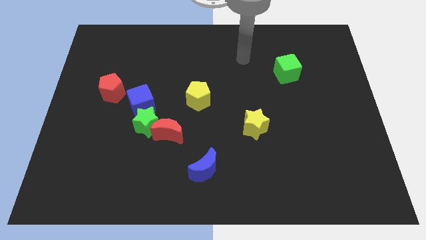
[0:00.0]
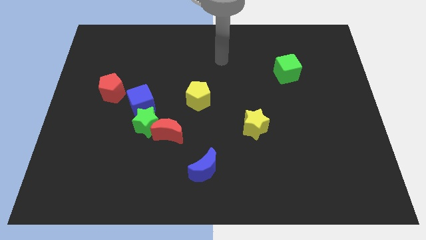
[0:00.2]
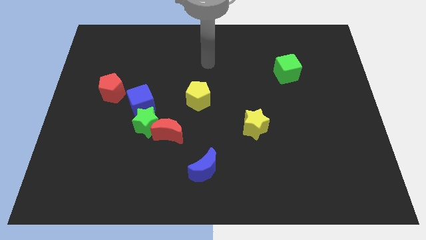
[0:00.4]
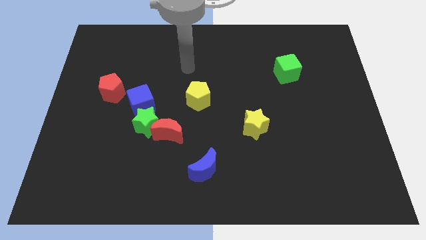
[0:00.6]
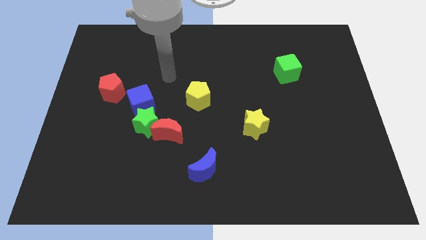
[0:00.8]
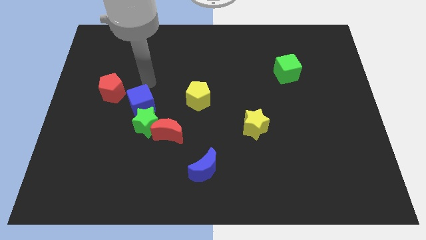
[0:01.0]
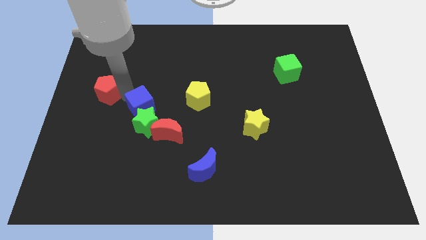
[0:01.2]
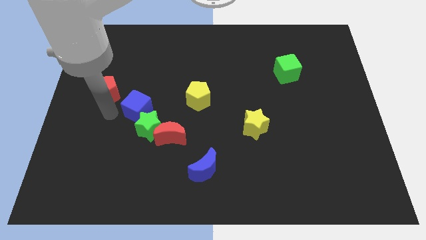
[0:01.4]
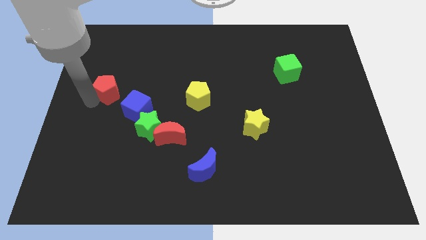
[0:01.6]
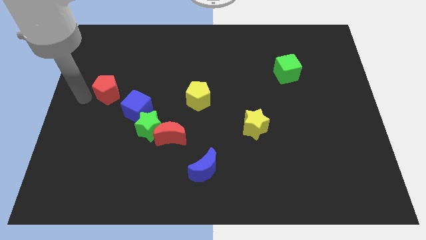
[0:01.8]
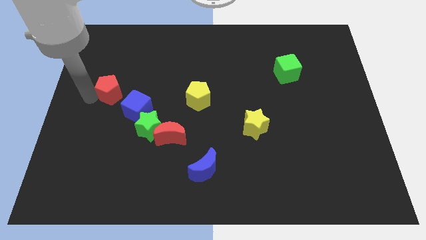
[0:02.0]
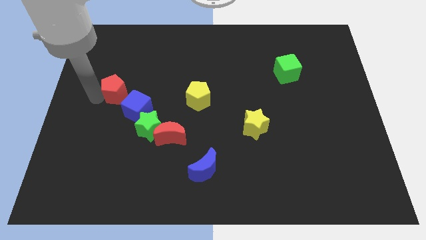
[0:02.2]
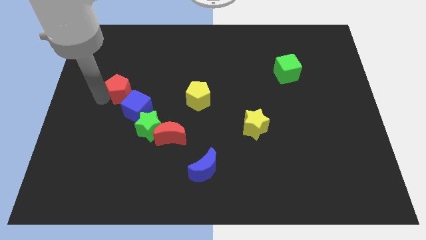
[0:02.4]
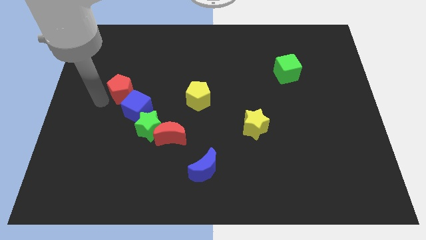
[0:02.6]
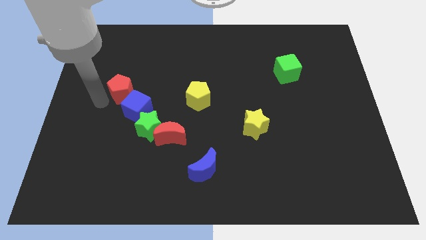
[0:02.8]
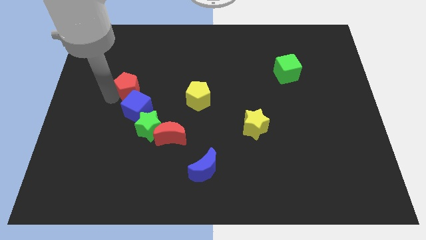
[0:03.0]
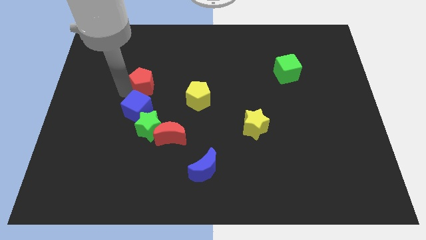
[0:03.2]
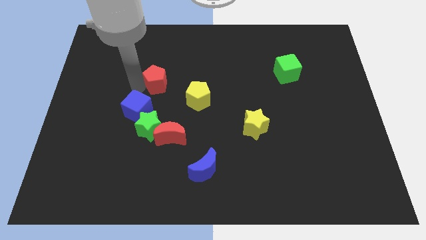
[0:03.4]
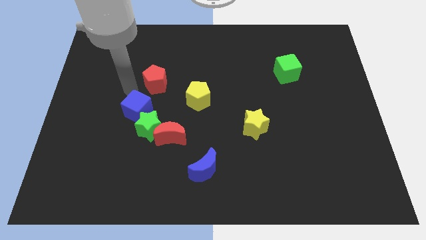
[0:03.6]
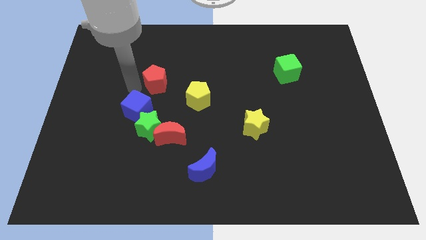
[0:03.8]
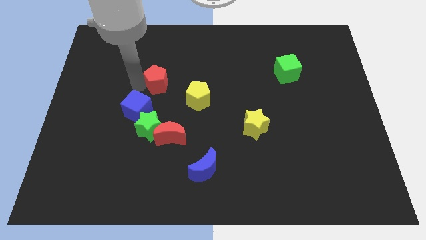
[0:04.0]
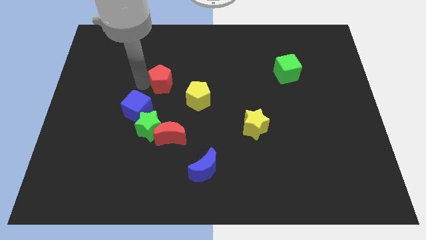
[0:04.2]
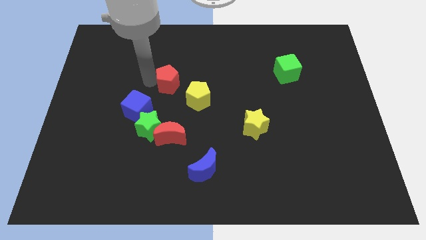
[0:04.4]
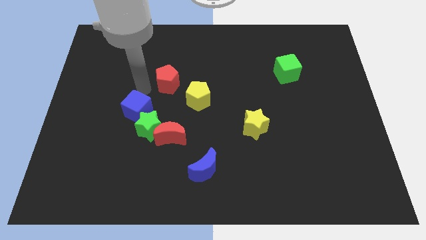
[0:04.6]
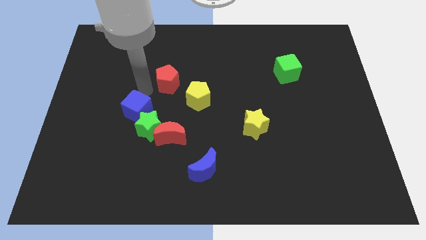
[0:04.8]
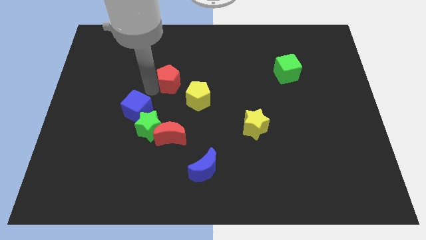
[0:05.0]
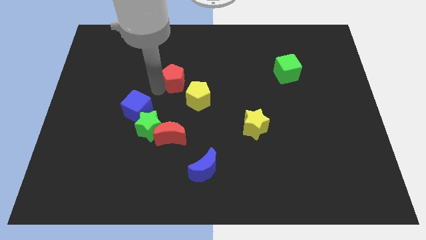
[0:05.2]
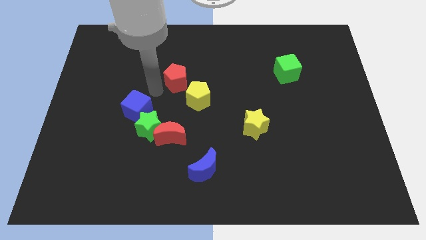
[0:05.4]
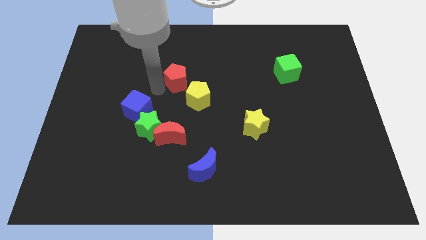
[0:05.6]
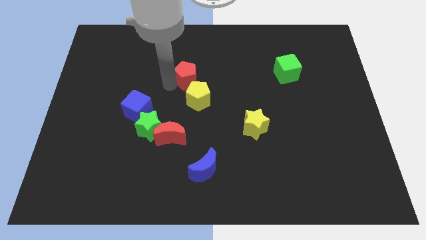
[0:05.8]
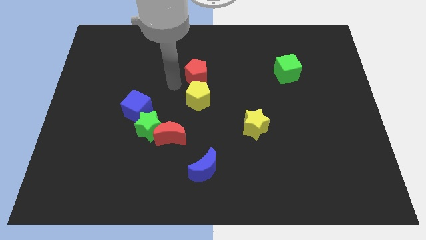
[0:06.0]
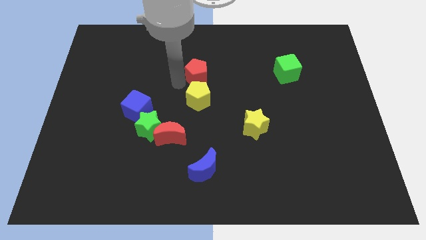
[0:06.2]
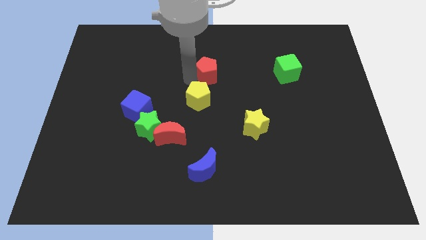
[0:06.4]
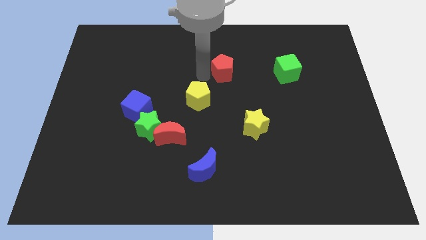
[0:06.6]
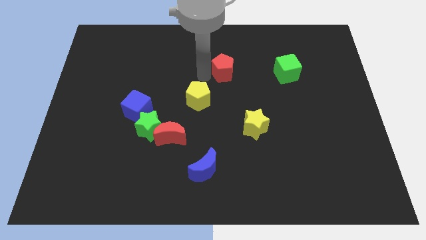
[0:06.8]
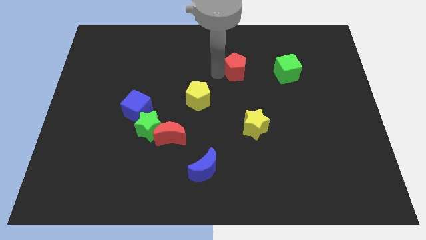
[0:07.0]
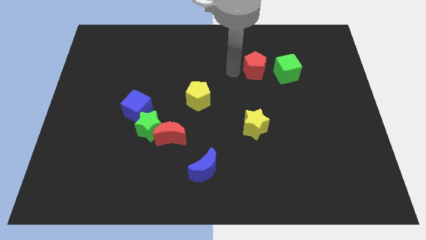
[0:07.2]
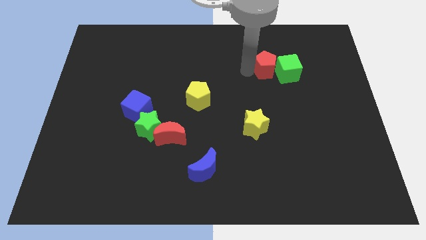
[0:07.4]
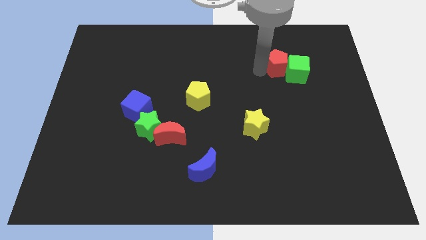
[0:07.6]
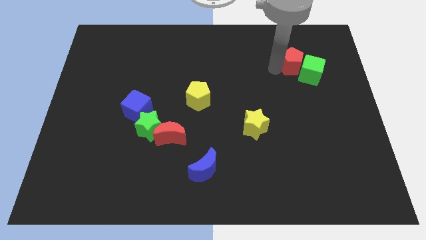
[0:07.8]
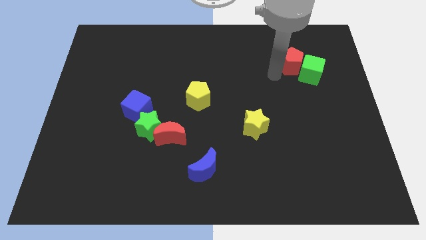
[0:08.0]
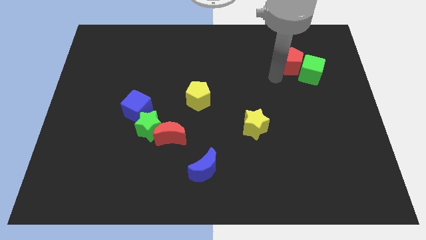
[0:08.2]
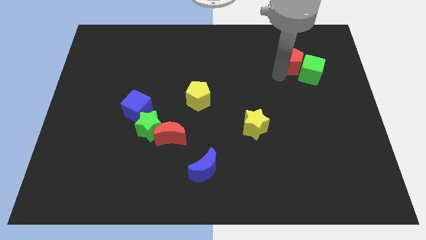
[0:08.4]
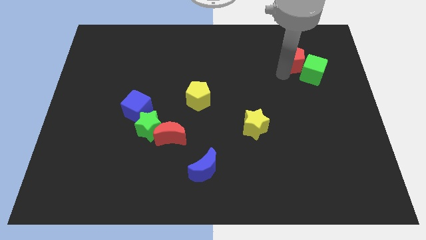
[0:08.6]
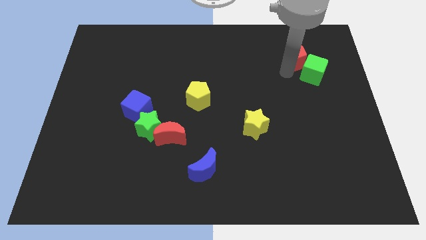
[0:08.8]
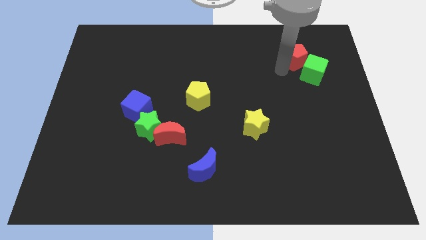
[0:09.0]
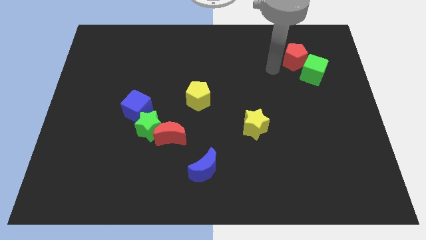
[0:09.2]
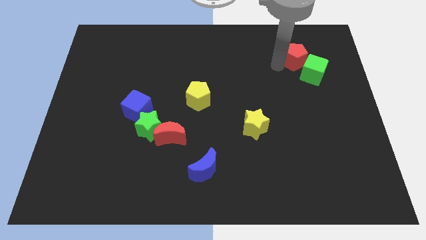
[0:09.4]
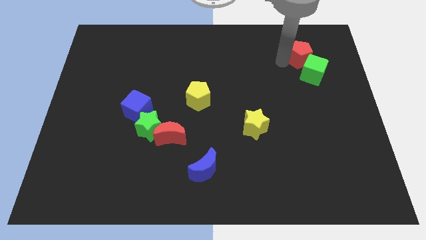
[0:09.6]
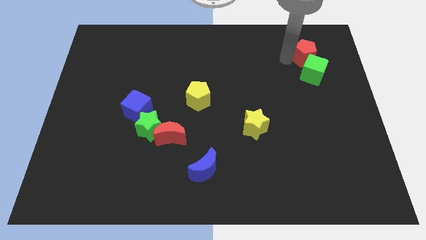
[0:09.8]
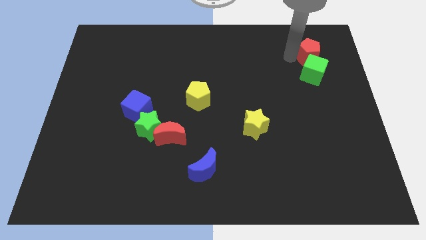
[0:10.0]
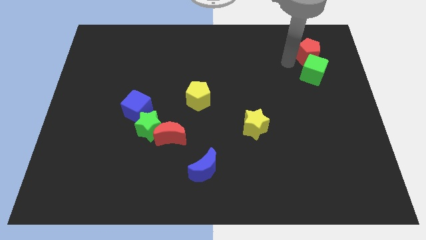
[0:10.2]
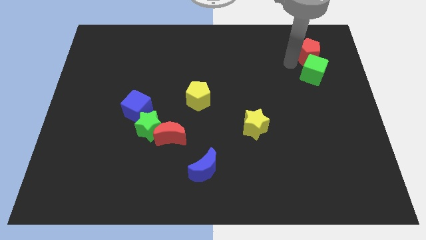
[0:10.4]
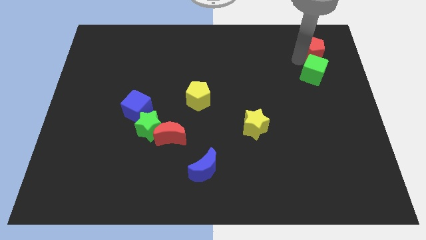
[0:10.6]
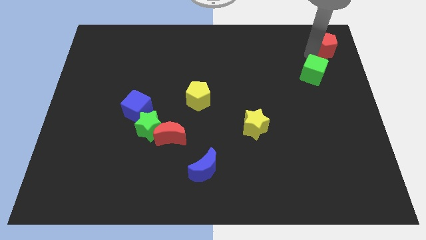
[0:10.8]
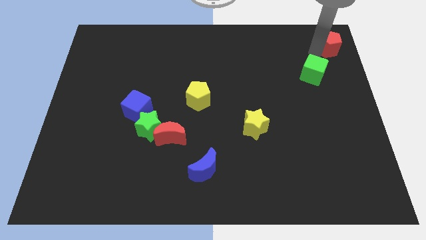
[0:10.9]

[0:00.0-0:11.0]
move the red pentagon to the top right corner

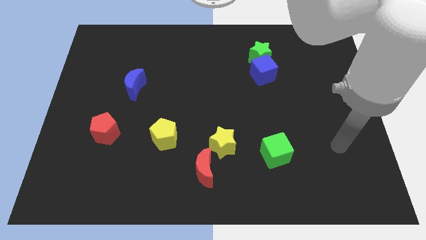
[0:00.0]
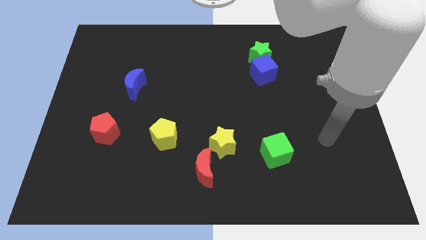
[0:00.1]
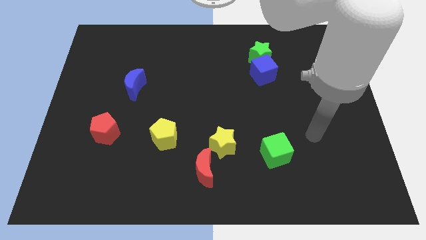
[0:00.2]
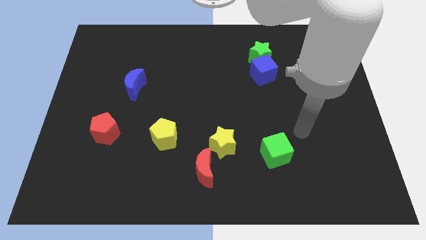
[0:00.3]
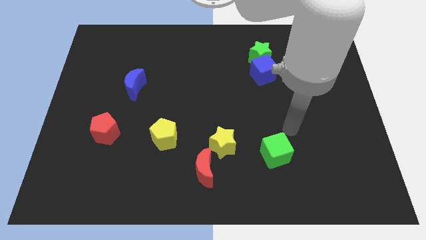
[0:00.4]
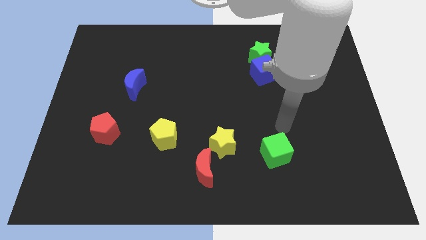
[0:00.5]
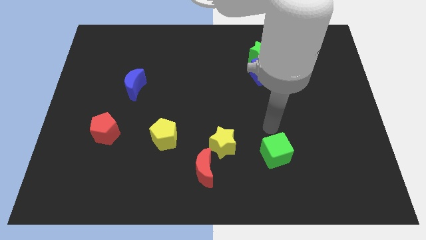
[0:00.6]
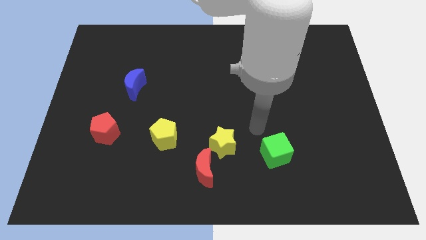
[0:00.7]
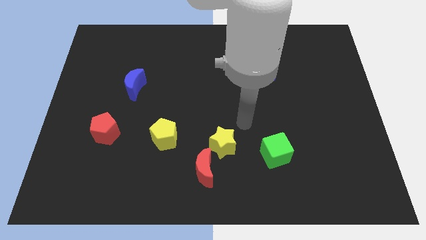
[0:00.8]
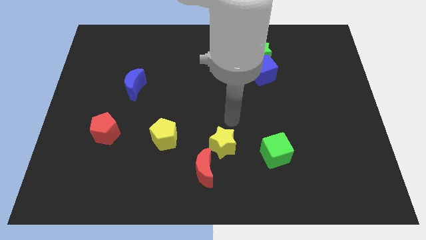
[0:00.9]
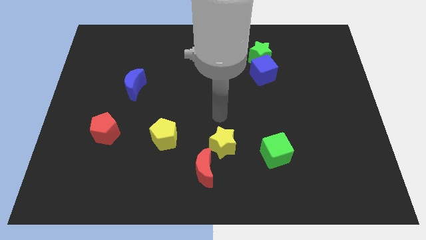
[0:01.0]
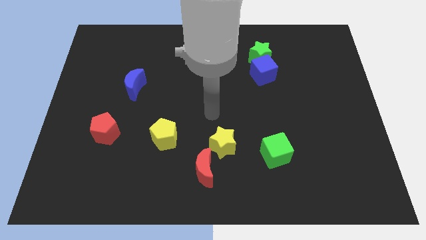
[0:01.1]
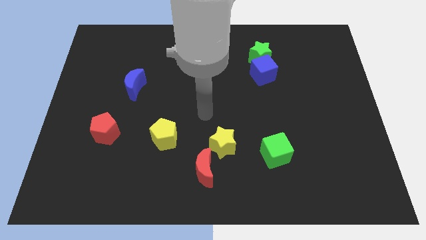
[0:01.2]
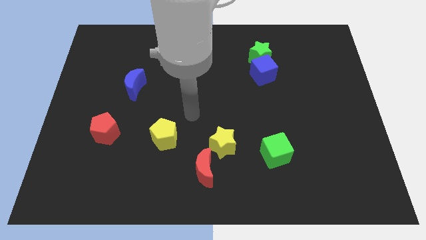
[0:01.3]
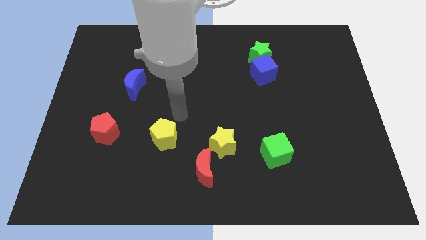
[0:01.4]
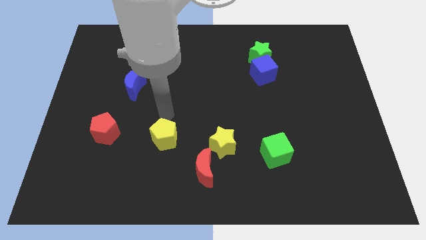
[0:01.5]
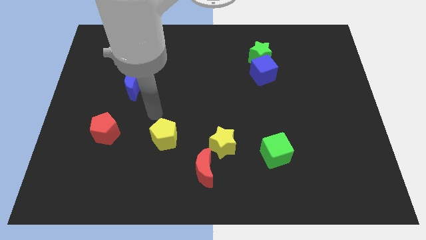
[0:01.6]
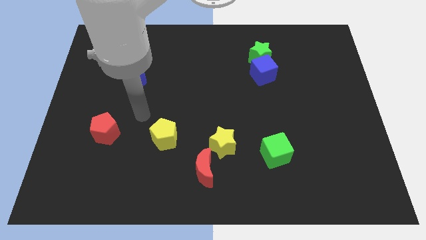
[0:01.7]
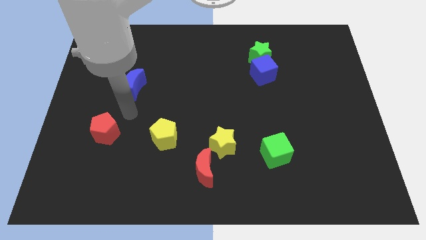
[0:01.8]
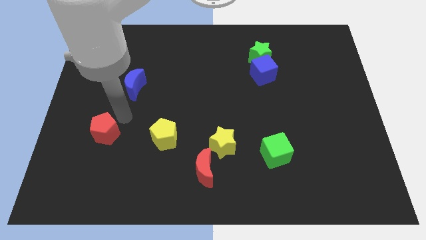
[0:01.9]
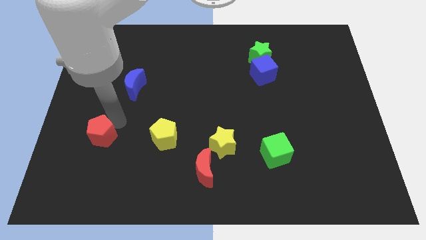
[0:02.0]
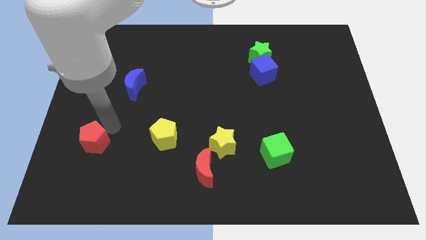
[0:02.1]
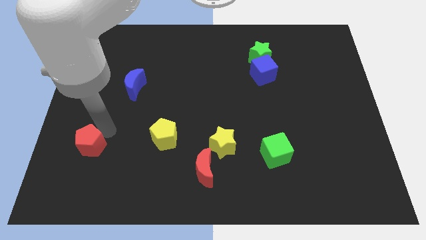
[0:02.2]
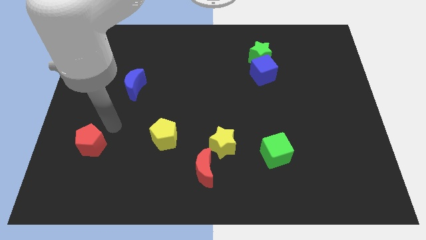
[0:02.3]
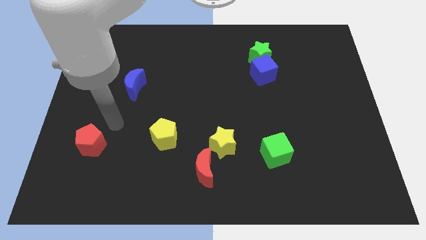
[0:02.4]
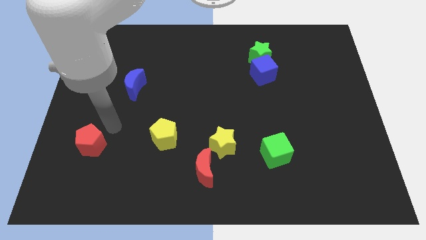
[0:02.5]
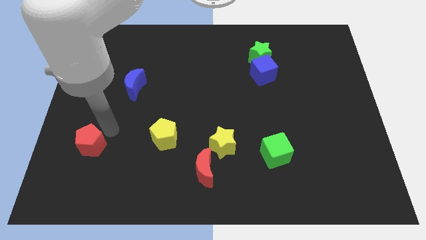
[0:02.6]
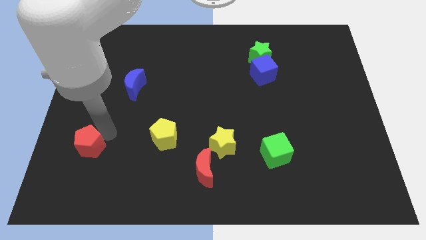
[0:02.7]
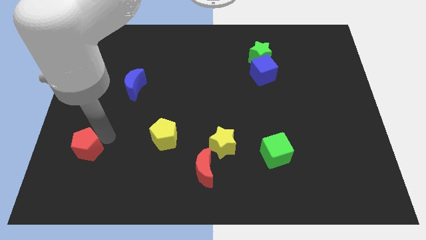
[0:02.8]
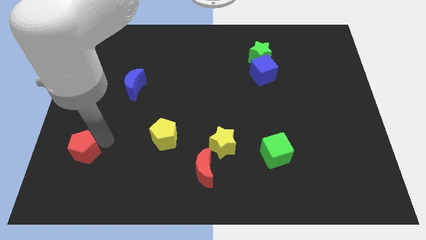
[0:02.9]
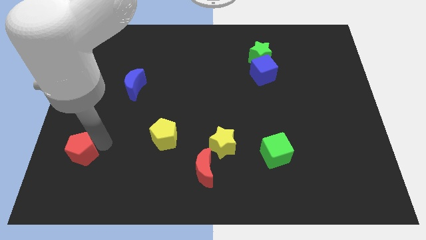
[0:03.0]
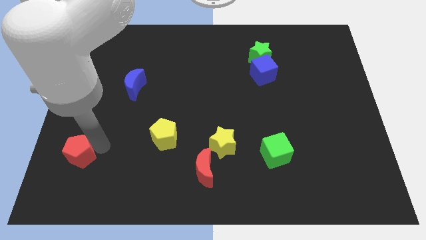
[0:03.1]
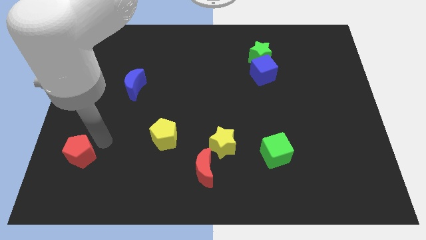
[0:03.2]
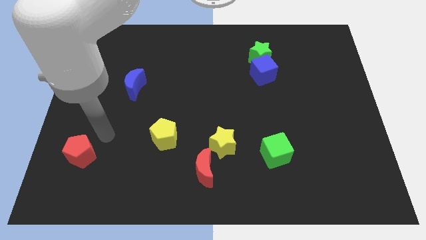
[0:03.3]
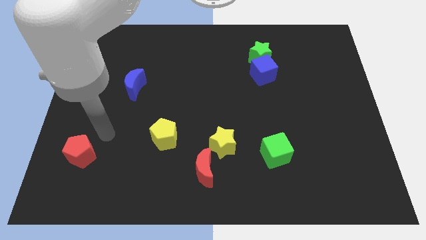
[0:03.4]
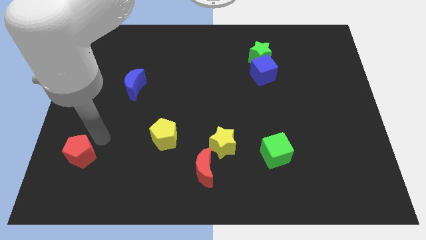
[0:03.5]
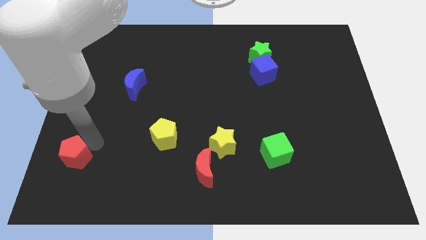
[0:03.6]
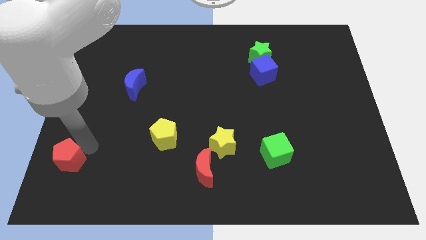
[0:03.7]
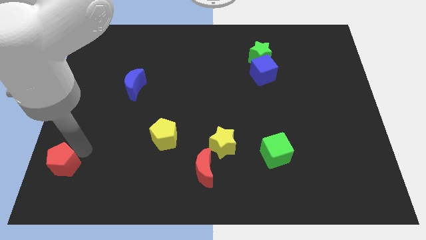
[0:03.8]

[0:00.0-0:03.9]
move the red pentagon to the bottom left
